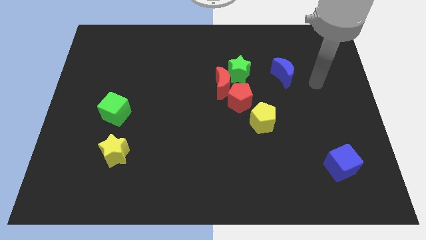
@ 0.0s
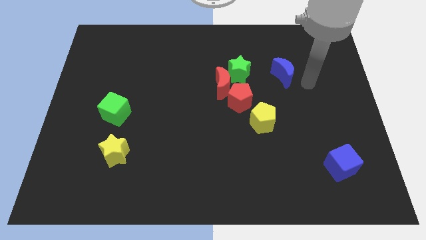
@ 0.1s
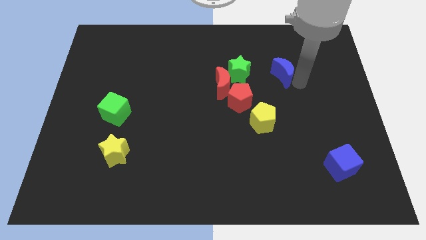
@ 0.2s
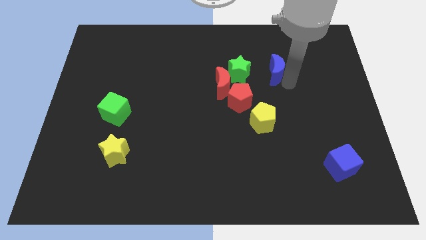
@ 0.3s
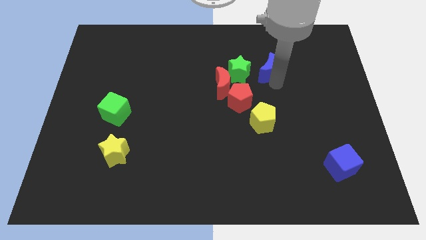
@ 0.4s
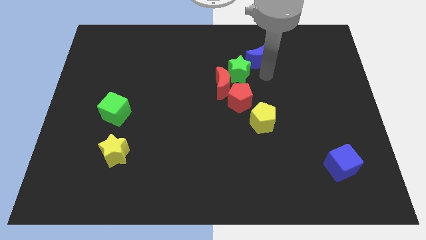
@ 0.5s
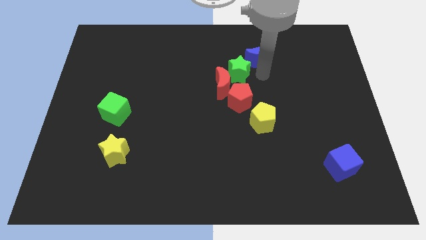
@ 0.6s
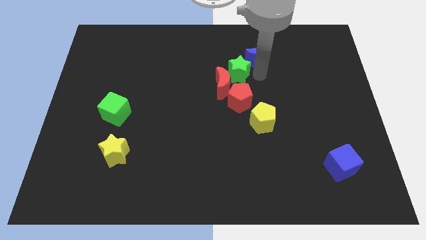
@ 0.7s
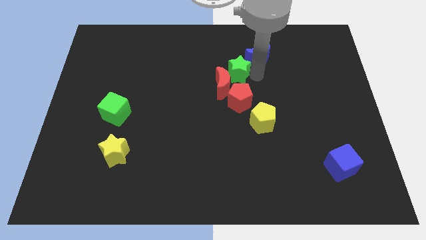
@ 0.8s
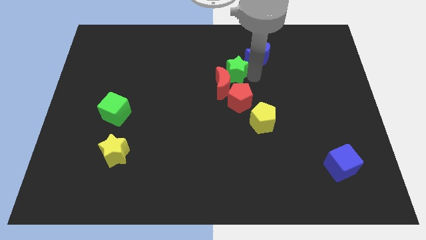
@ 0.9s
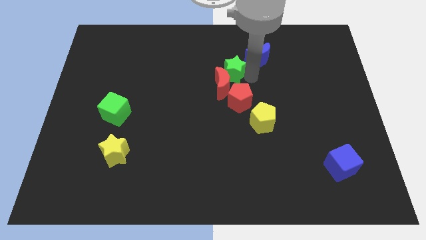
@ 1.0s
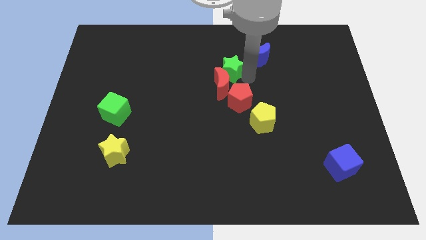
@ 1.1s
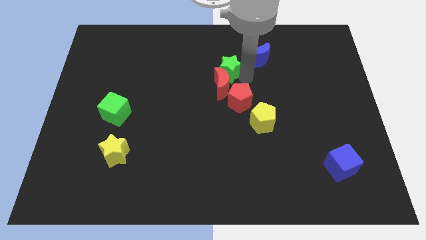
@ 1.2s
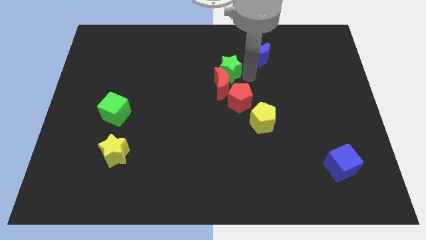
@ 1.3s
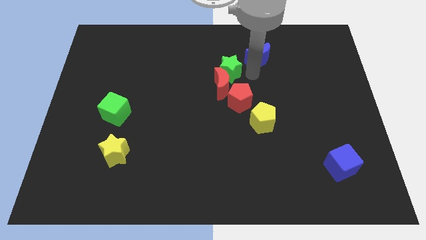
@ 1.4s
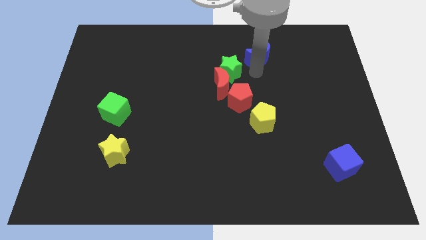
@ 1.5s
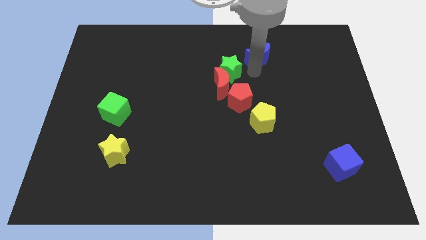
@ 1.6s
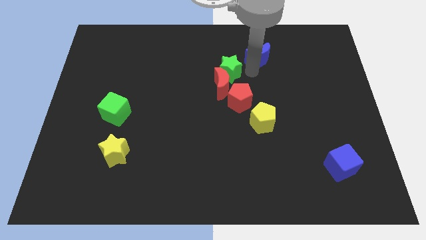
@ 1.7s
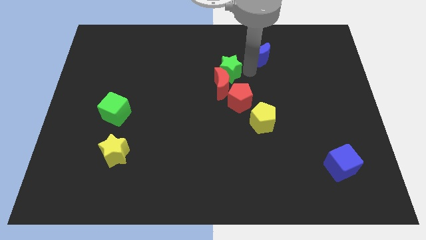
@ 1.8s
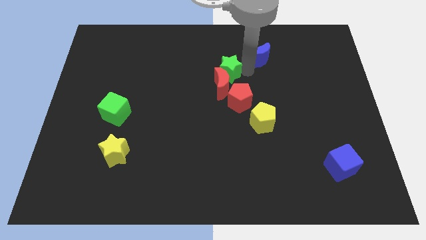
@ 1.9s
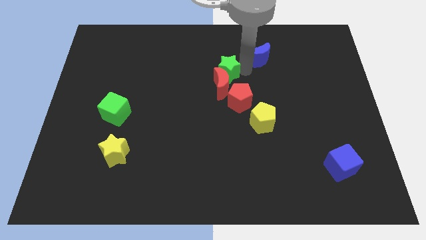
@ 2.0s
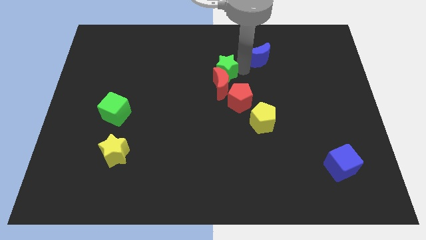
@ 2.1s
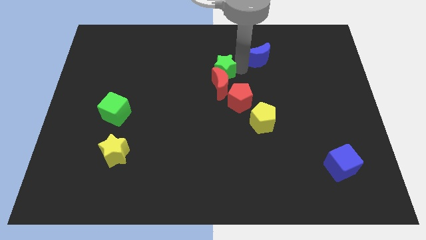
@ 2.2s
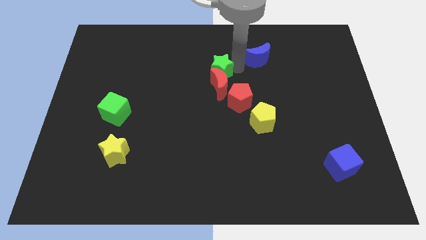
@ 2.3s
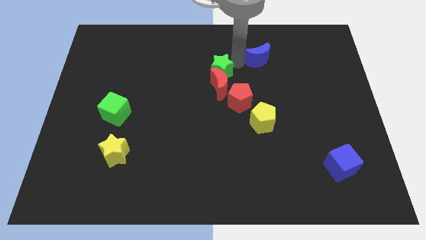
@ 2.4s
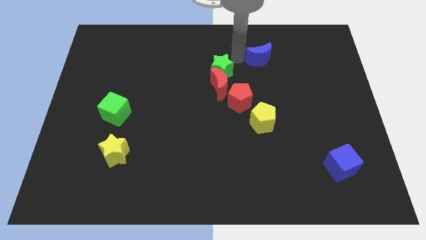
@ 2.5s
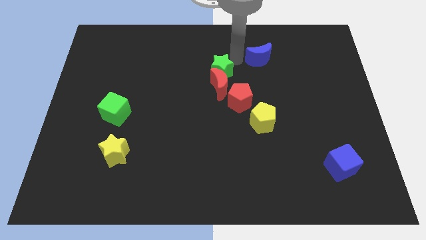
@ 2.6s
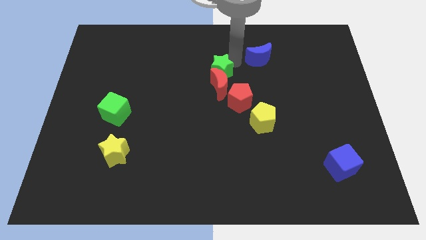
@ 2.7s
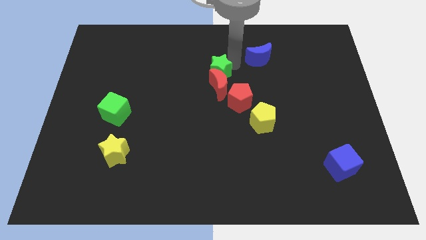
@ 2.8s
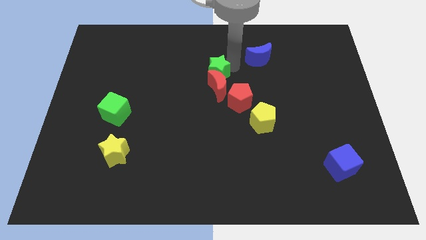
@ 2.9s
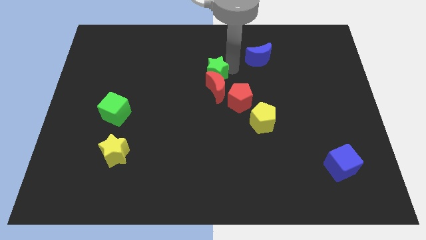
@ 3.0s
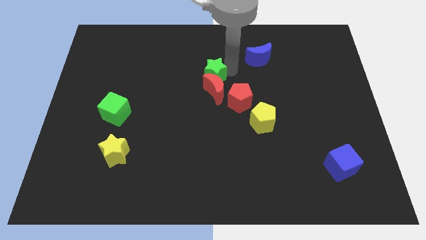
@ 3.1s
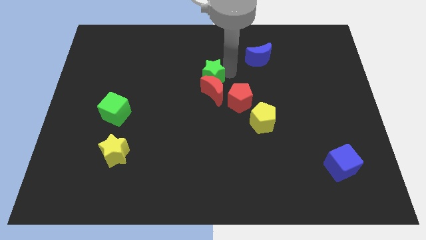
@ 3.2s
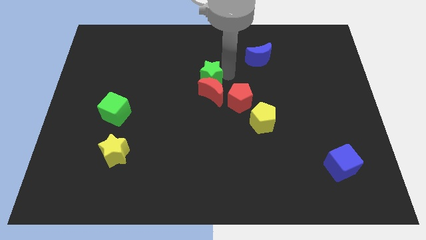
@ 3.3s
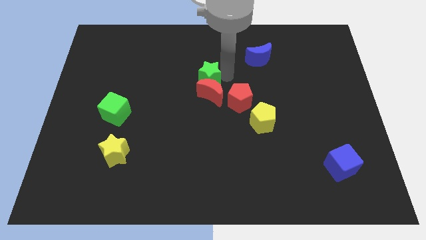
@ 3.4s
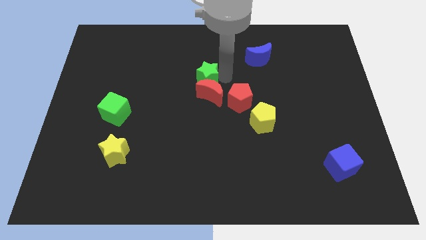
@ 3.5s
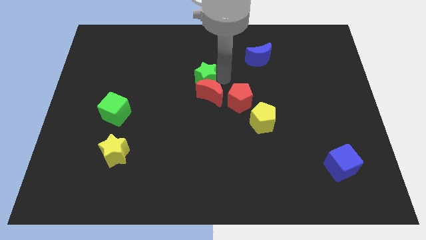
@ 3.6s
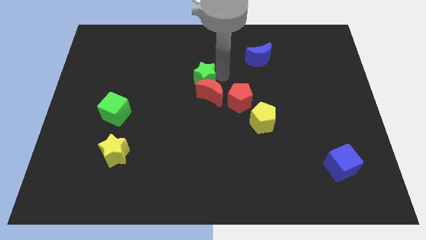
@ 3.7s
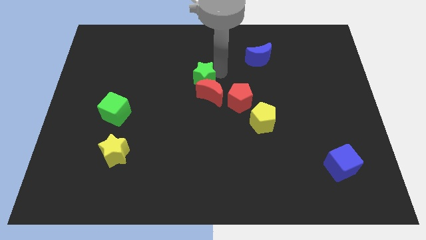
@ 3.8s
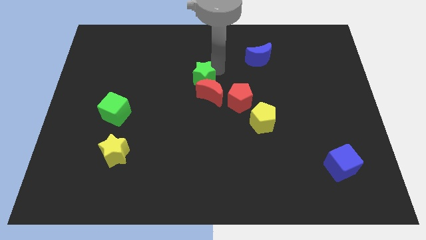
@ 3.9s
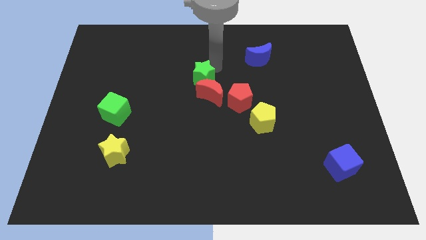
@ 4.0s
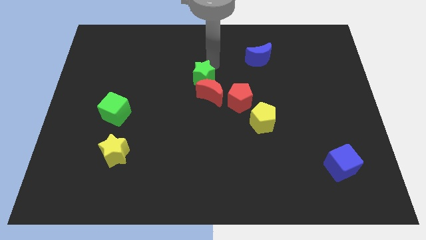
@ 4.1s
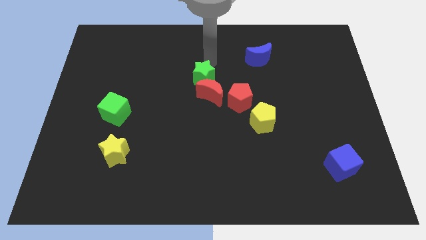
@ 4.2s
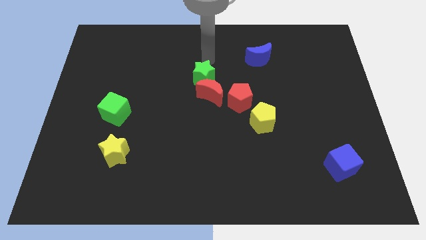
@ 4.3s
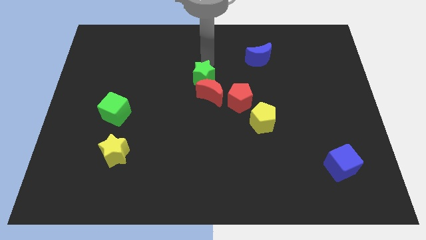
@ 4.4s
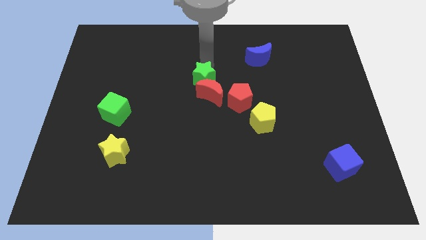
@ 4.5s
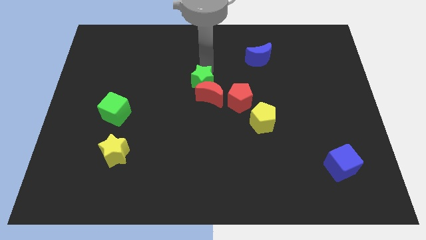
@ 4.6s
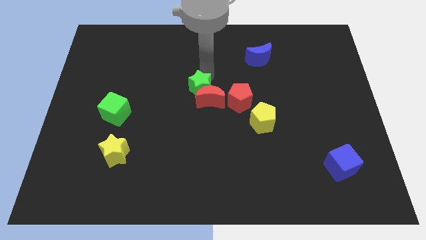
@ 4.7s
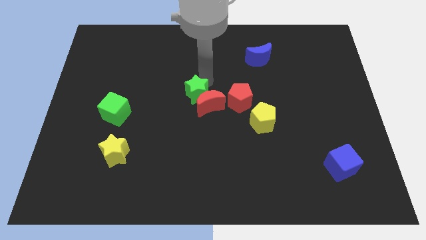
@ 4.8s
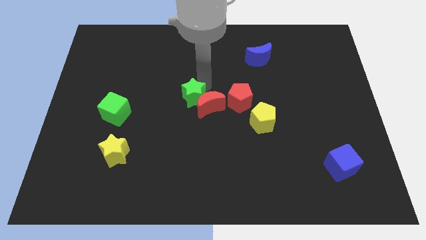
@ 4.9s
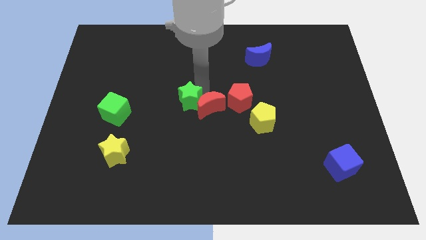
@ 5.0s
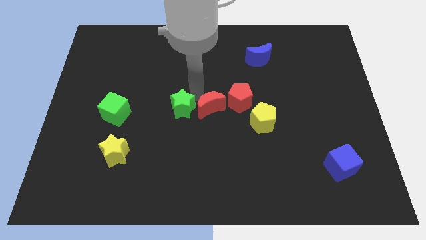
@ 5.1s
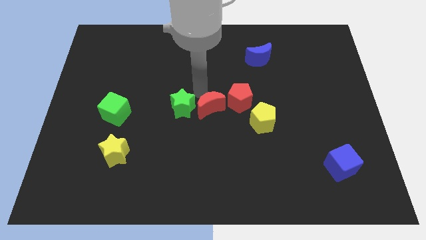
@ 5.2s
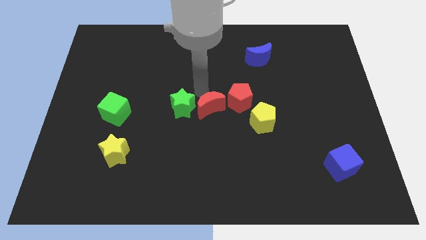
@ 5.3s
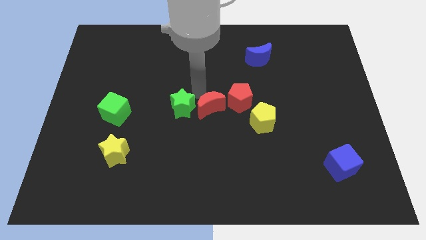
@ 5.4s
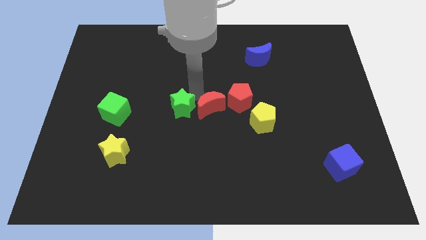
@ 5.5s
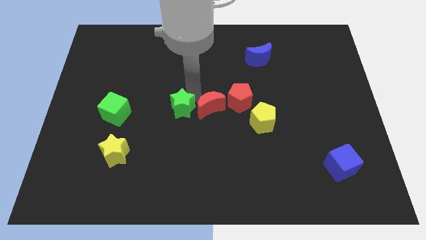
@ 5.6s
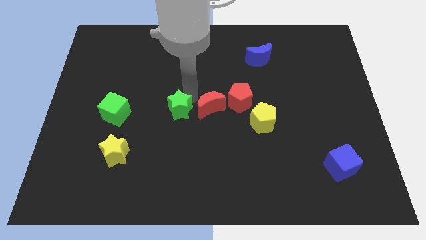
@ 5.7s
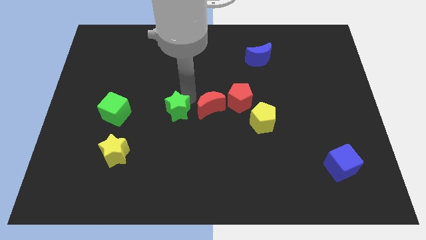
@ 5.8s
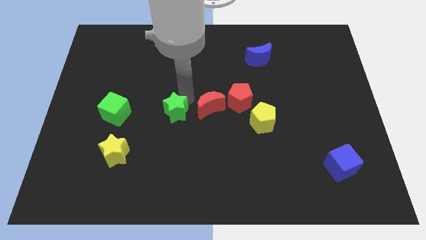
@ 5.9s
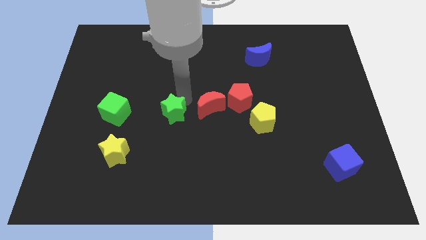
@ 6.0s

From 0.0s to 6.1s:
slide the green star down and to the left

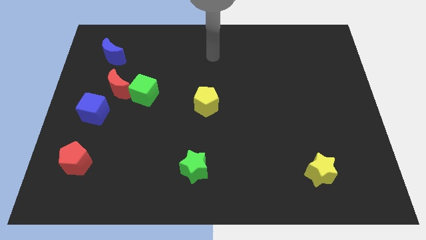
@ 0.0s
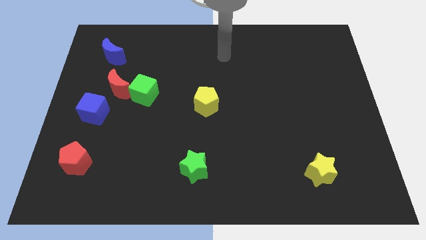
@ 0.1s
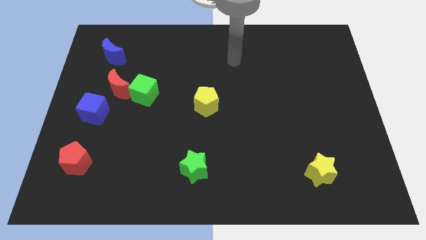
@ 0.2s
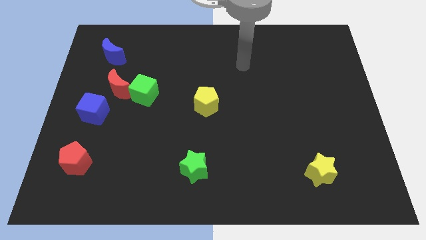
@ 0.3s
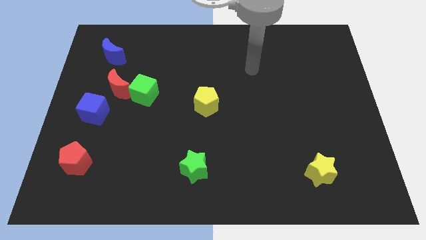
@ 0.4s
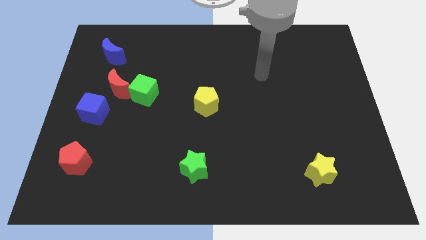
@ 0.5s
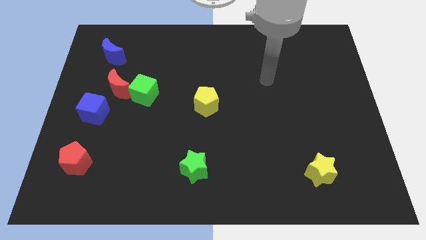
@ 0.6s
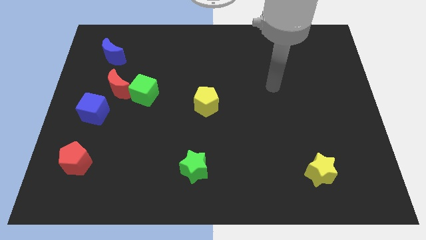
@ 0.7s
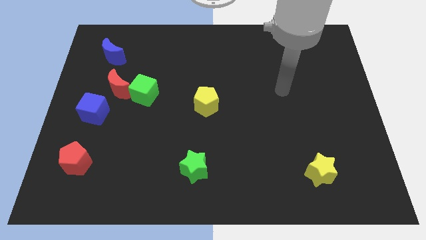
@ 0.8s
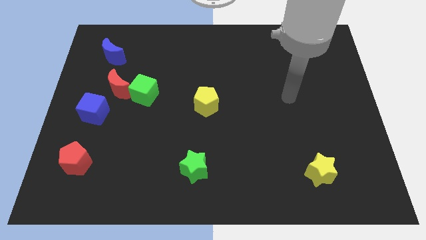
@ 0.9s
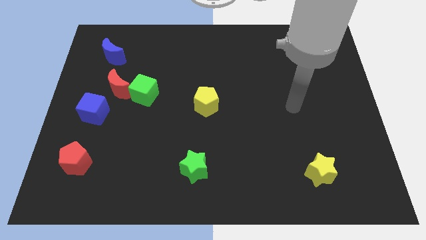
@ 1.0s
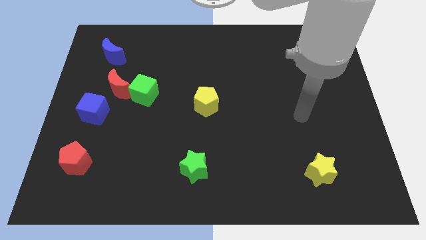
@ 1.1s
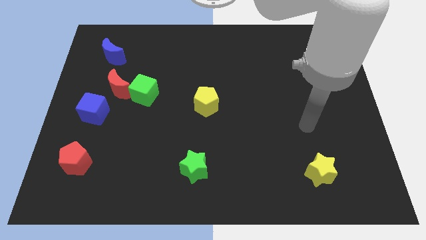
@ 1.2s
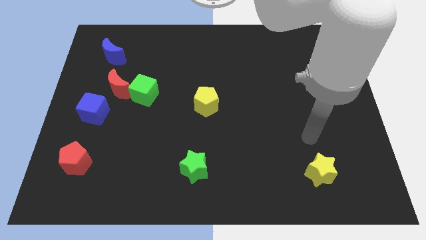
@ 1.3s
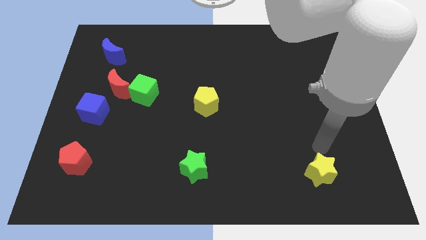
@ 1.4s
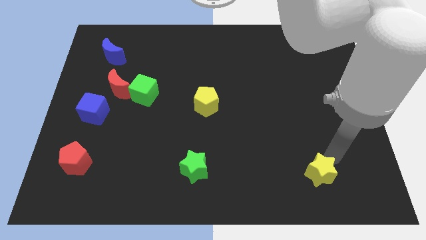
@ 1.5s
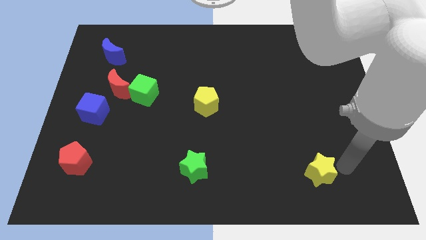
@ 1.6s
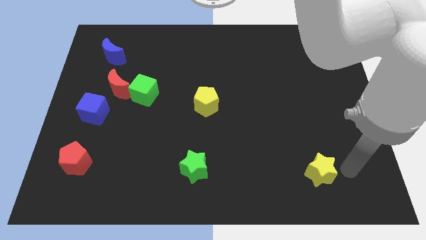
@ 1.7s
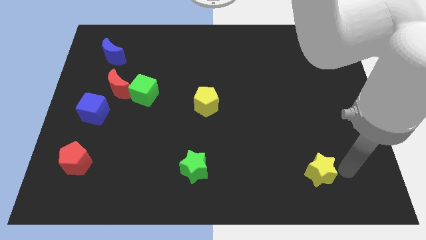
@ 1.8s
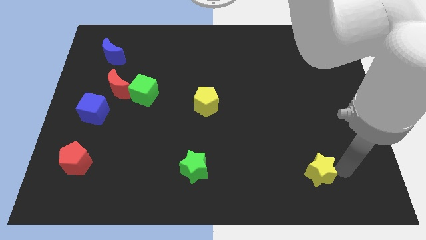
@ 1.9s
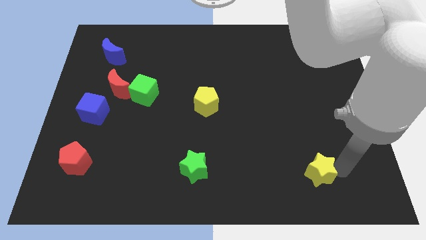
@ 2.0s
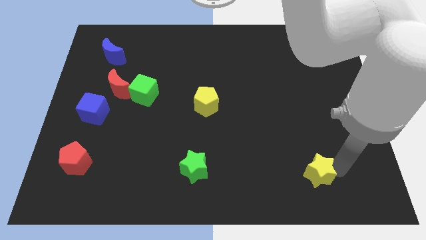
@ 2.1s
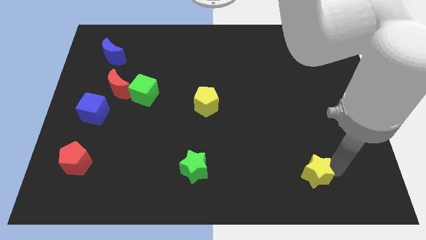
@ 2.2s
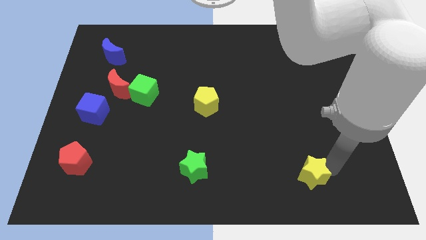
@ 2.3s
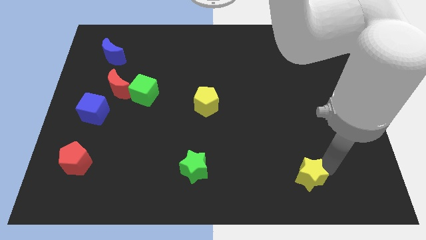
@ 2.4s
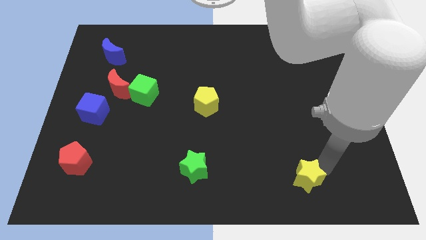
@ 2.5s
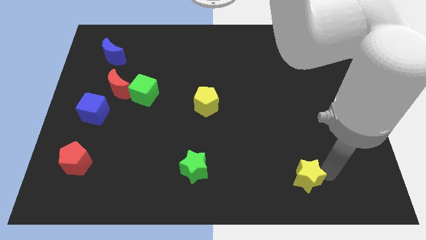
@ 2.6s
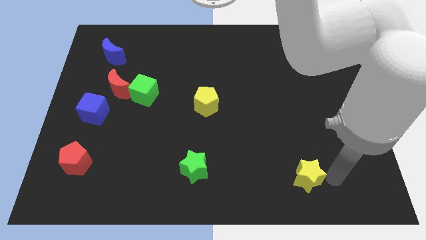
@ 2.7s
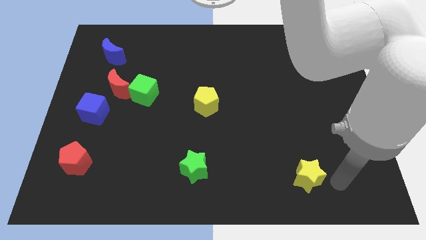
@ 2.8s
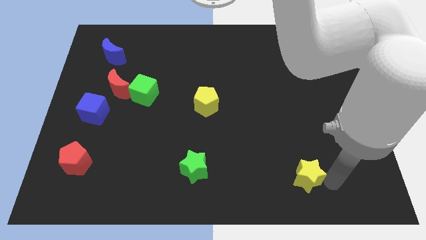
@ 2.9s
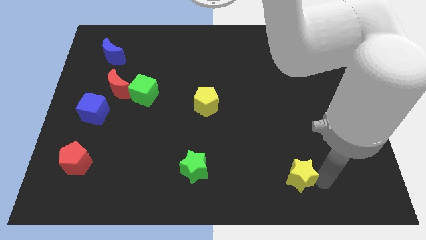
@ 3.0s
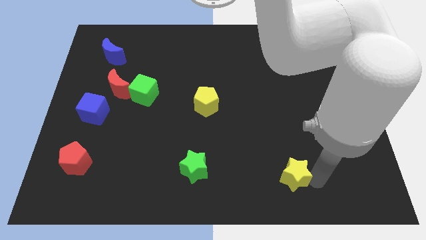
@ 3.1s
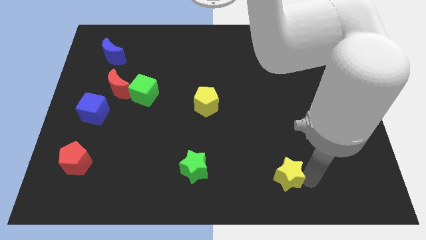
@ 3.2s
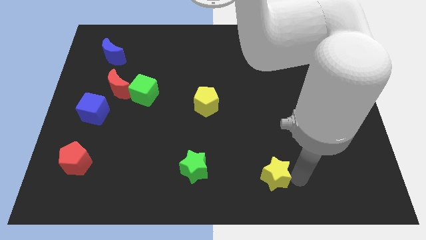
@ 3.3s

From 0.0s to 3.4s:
slightly move the yellow star to the left
